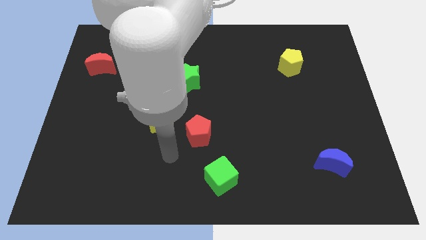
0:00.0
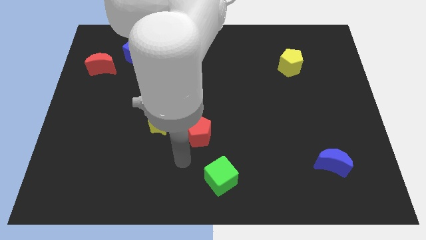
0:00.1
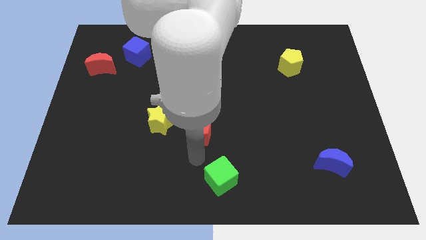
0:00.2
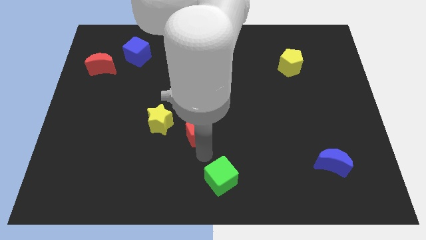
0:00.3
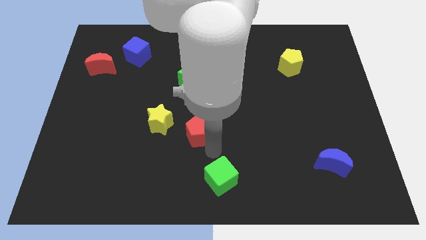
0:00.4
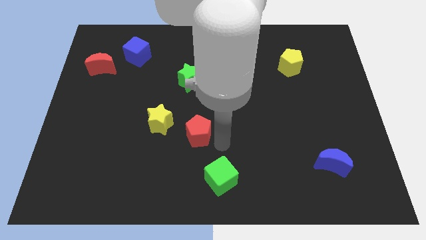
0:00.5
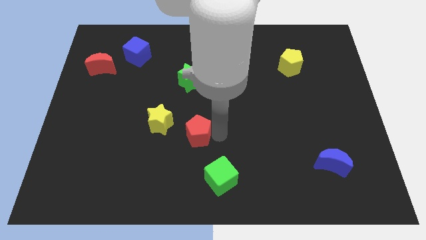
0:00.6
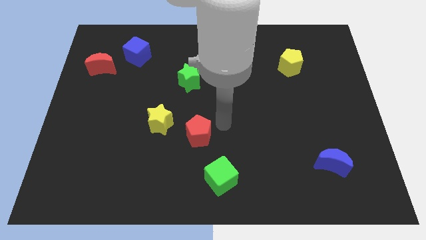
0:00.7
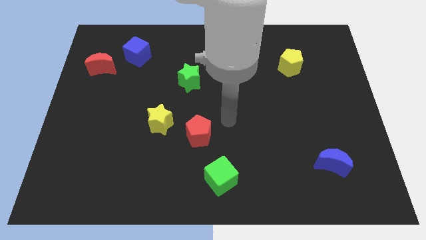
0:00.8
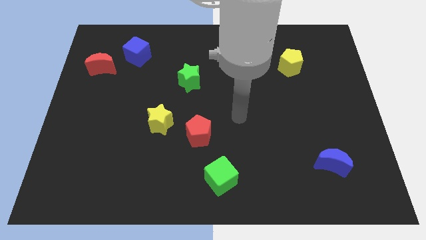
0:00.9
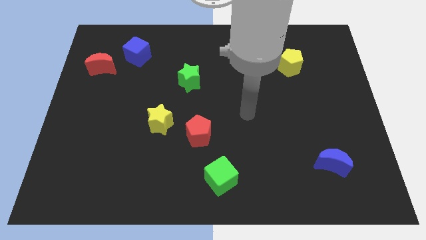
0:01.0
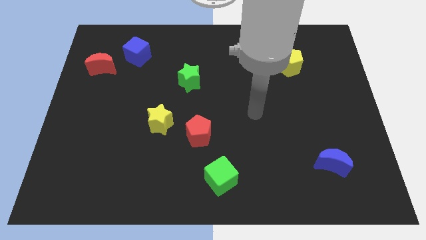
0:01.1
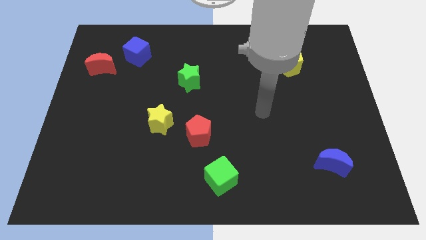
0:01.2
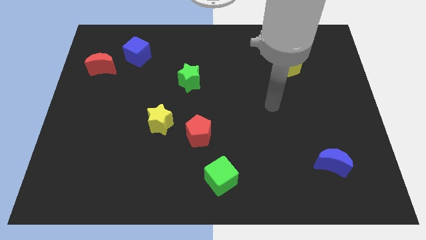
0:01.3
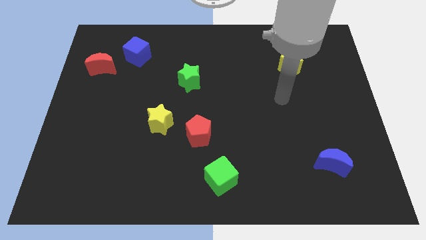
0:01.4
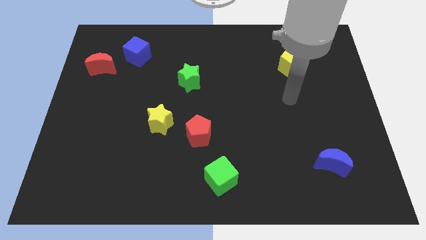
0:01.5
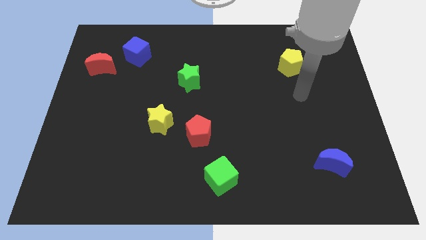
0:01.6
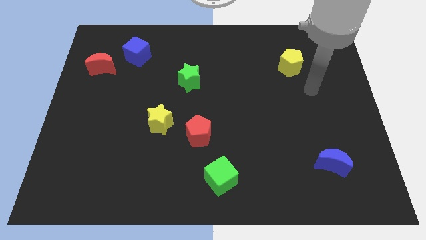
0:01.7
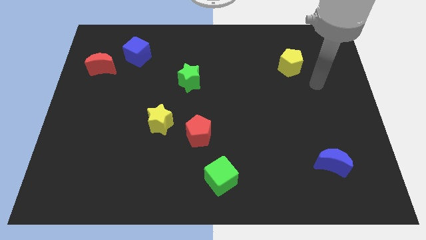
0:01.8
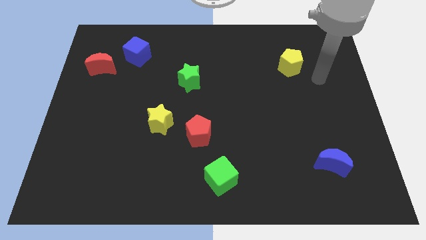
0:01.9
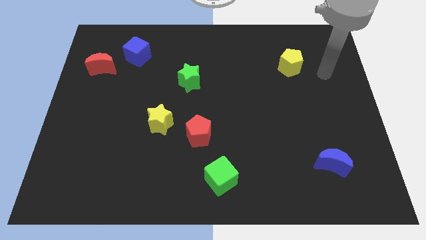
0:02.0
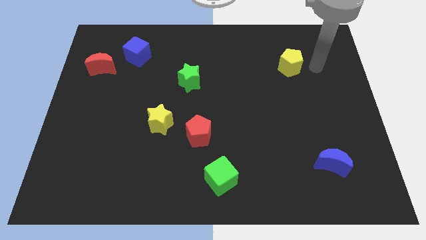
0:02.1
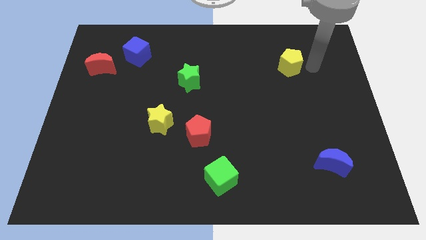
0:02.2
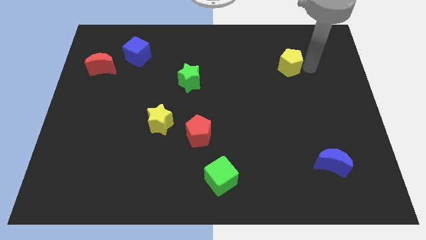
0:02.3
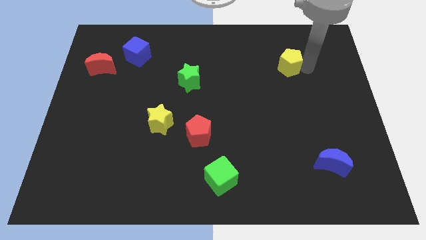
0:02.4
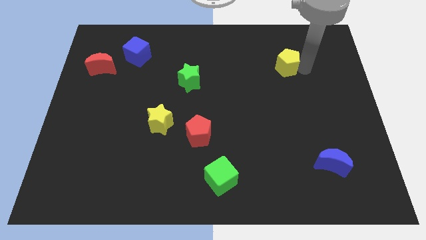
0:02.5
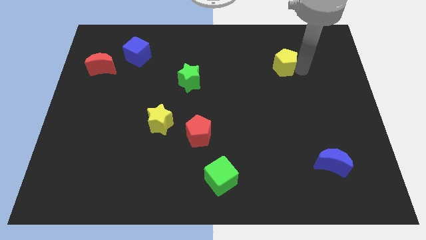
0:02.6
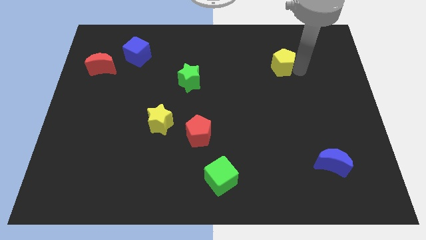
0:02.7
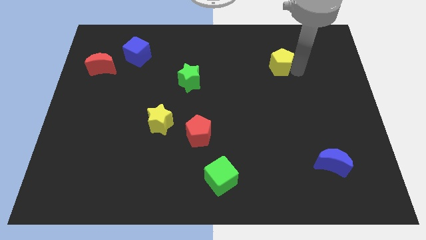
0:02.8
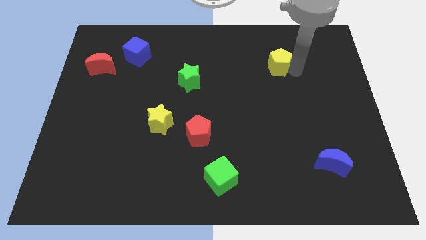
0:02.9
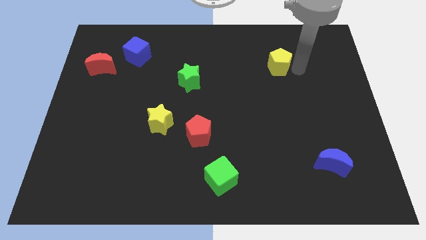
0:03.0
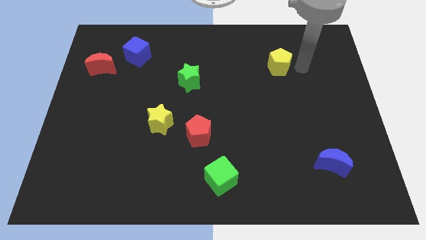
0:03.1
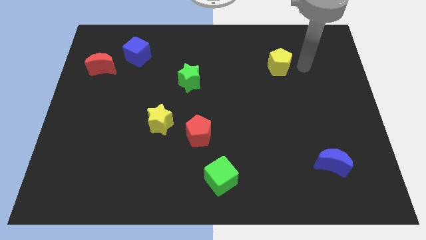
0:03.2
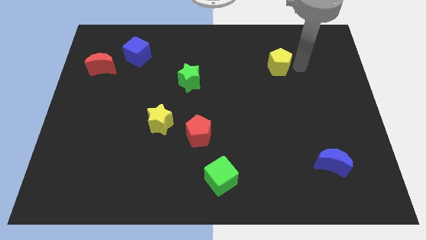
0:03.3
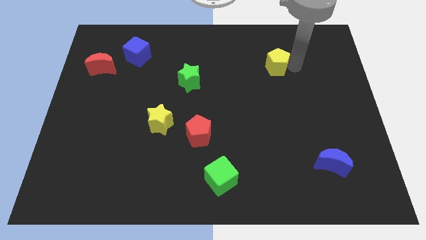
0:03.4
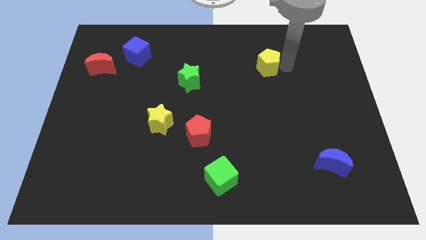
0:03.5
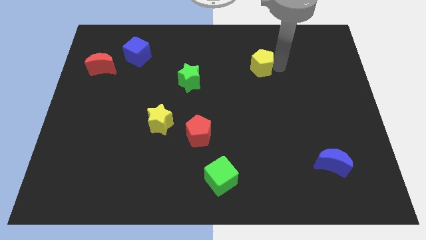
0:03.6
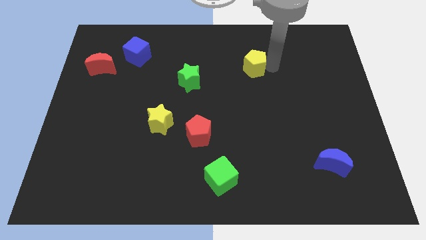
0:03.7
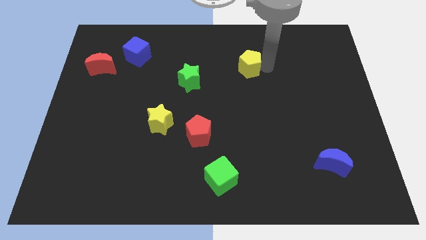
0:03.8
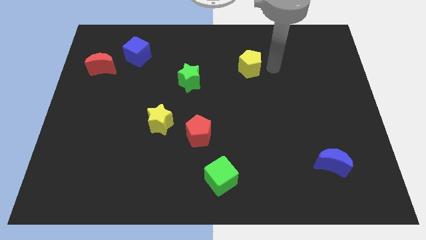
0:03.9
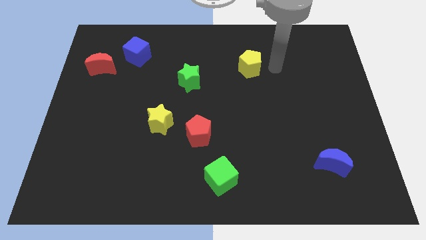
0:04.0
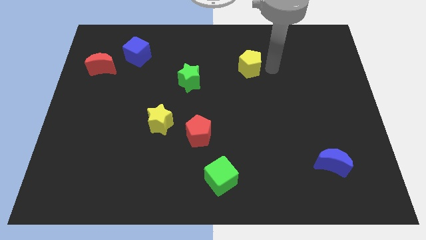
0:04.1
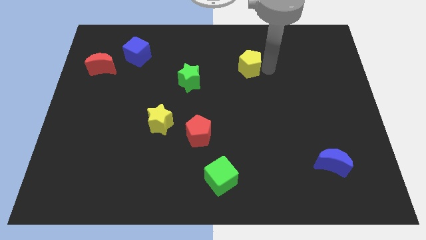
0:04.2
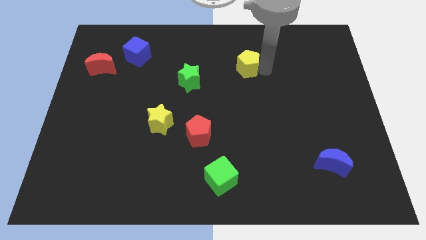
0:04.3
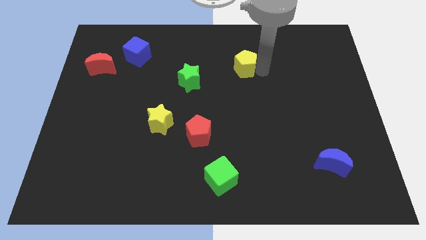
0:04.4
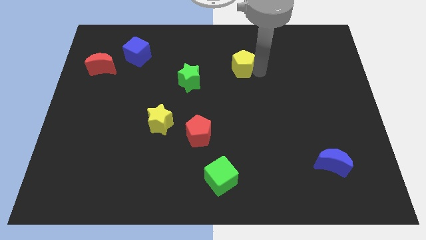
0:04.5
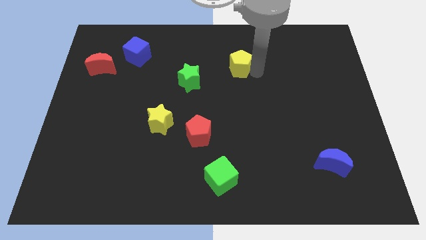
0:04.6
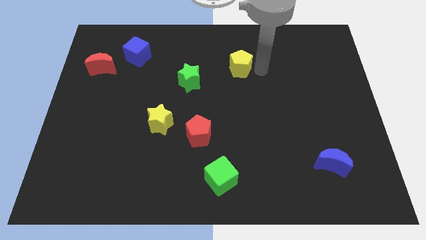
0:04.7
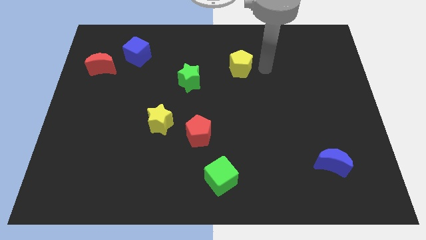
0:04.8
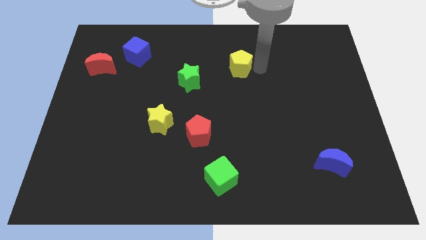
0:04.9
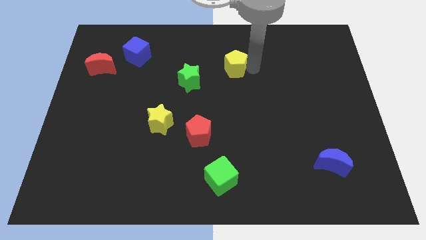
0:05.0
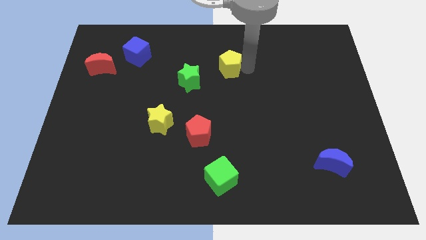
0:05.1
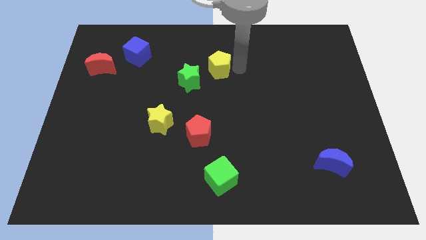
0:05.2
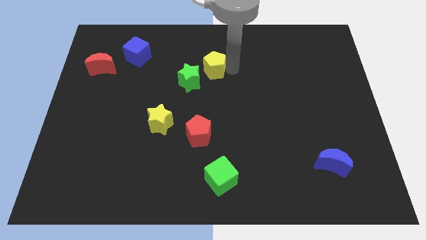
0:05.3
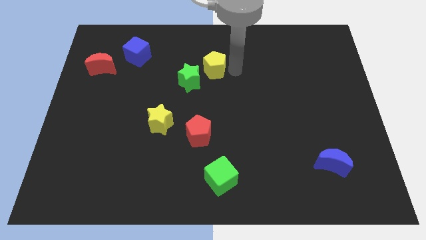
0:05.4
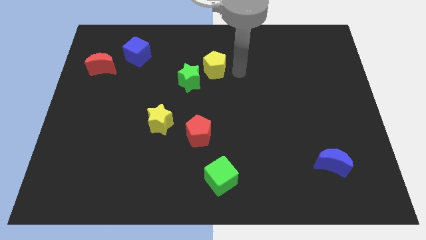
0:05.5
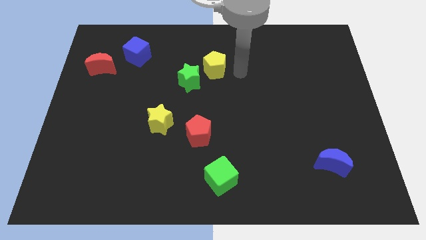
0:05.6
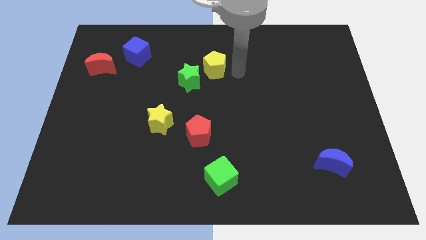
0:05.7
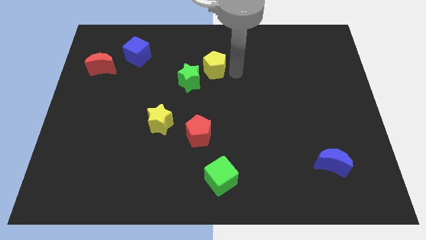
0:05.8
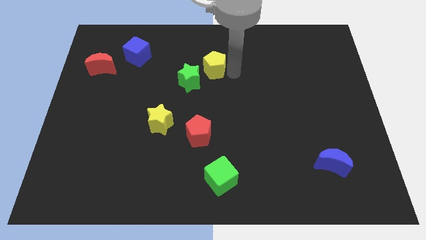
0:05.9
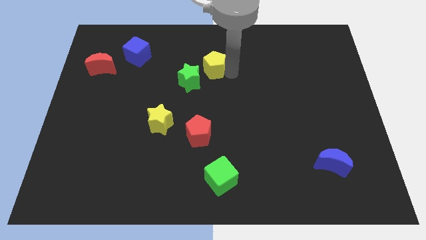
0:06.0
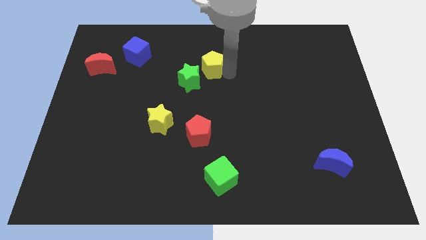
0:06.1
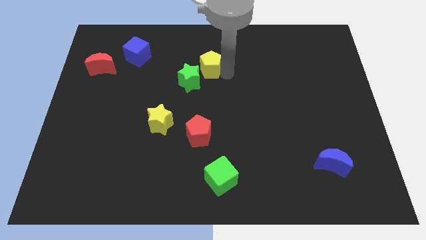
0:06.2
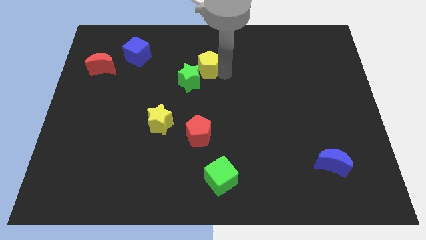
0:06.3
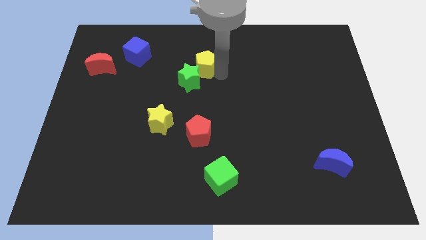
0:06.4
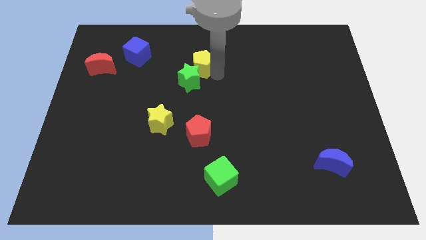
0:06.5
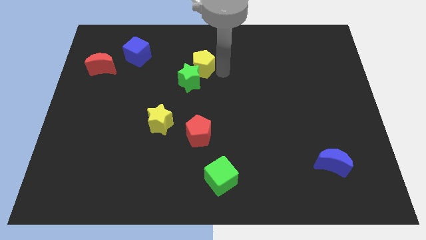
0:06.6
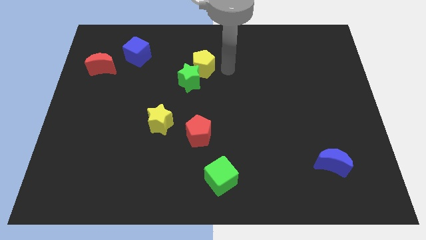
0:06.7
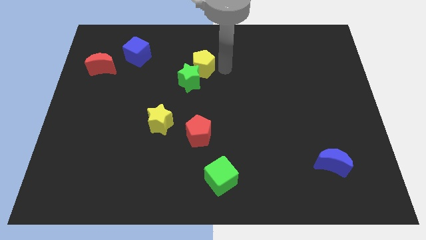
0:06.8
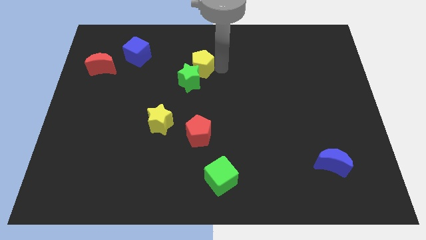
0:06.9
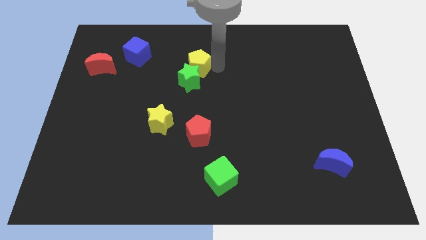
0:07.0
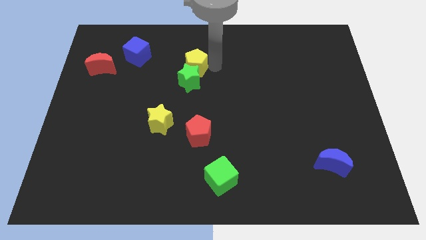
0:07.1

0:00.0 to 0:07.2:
move the yellow pentagon to the top left of the green star
